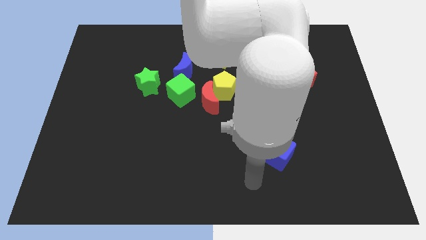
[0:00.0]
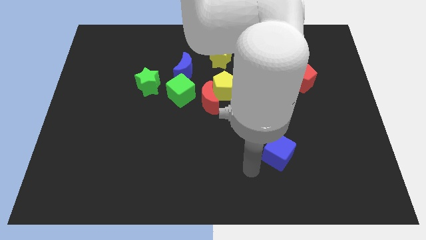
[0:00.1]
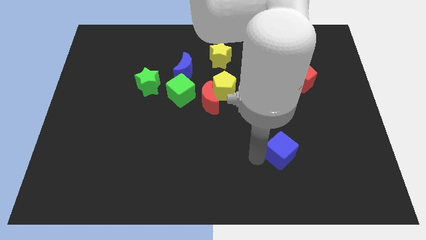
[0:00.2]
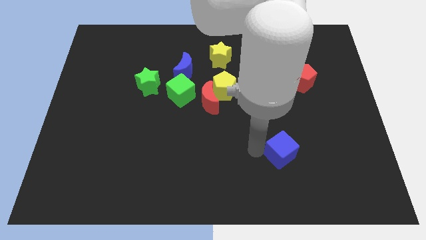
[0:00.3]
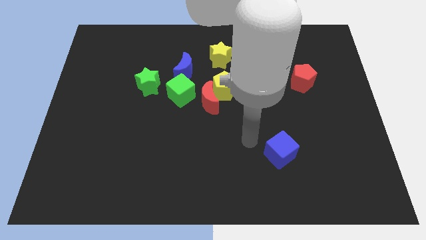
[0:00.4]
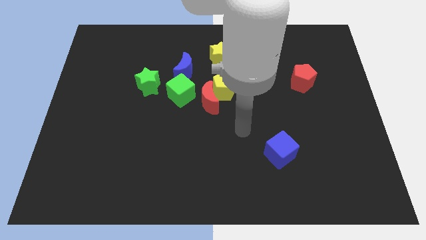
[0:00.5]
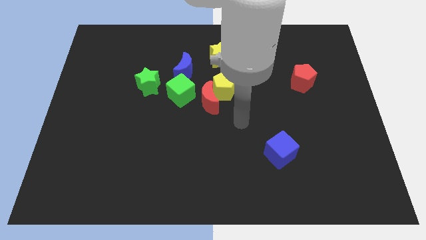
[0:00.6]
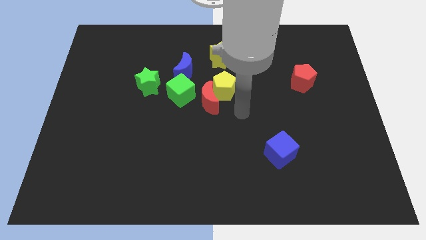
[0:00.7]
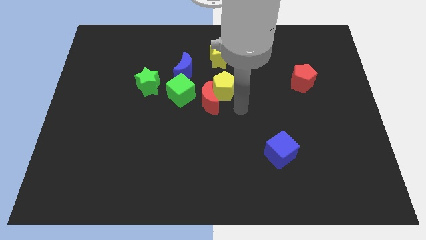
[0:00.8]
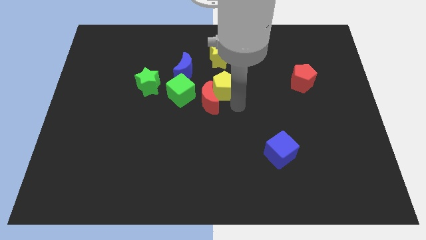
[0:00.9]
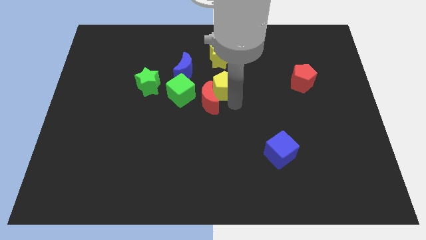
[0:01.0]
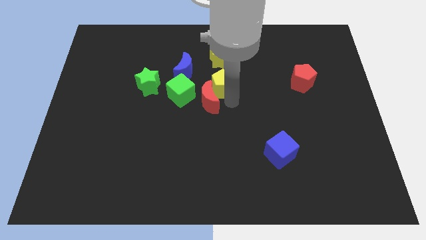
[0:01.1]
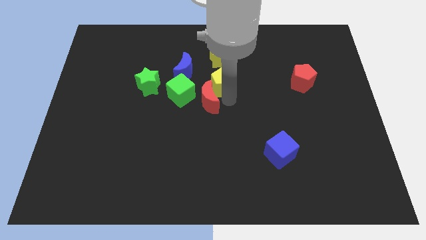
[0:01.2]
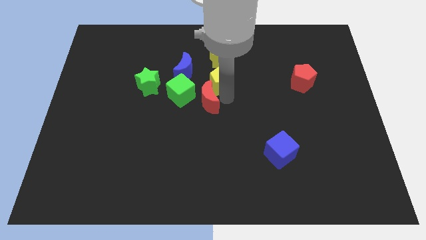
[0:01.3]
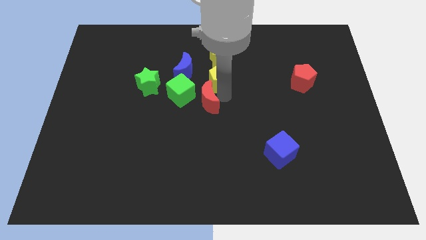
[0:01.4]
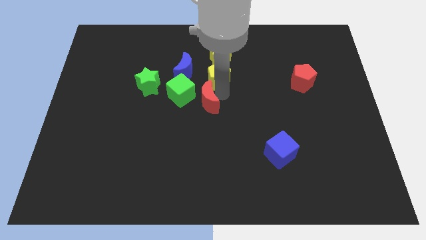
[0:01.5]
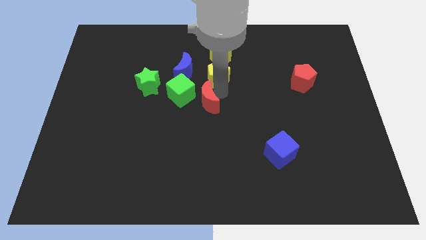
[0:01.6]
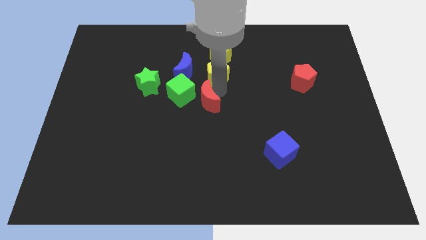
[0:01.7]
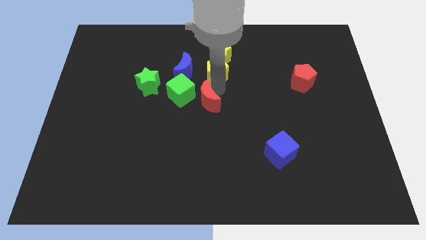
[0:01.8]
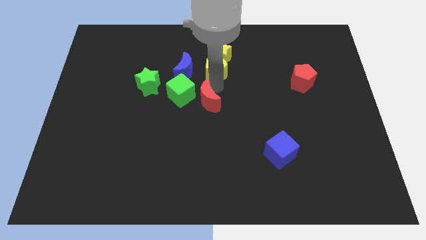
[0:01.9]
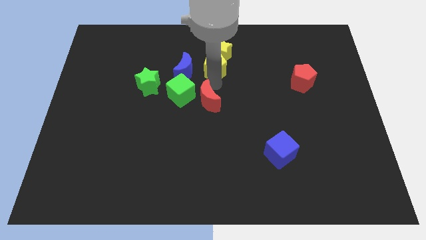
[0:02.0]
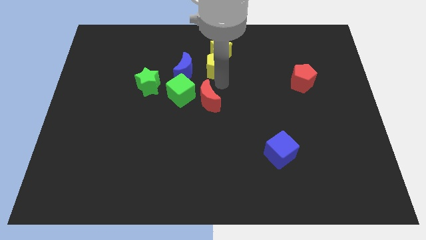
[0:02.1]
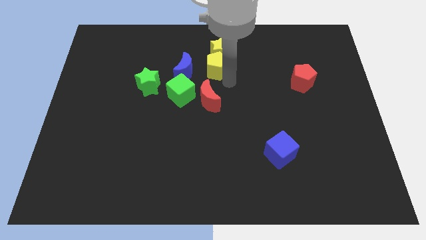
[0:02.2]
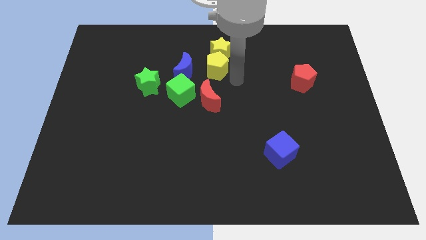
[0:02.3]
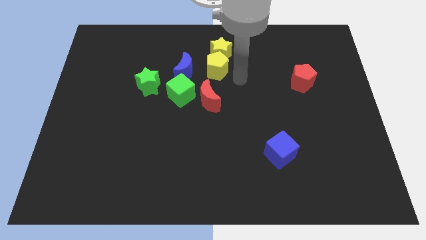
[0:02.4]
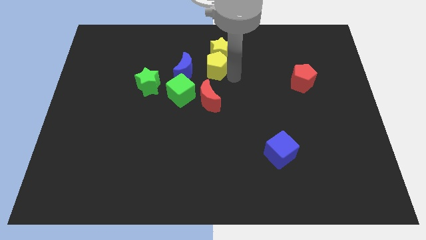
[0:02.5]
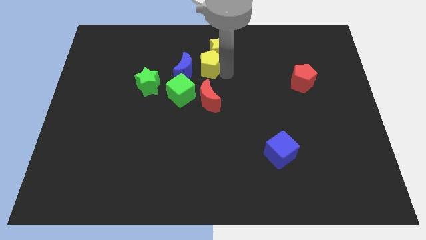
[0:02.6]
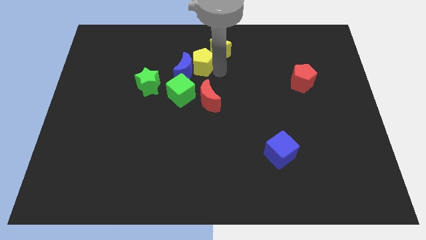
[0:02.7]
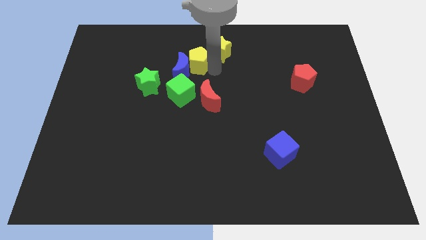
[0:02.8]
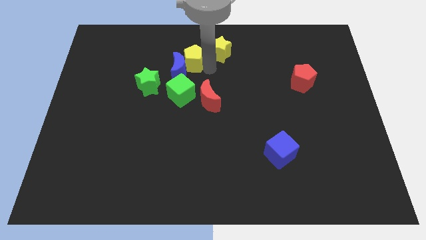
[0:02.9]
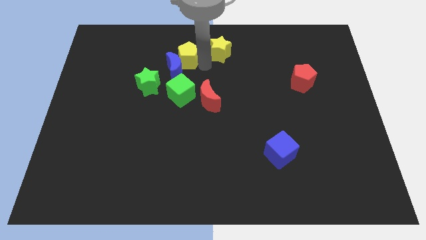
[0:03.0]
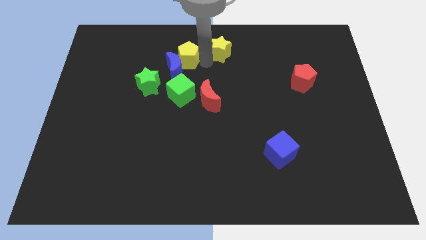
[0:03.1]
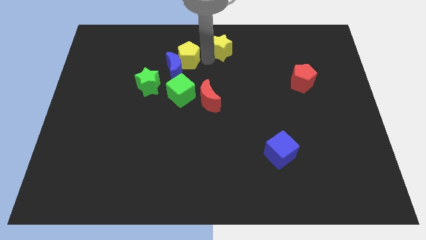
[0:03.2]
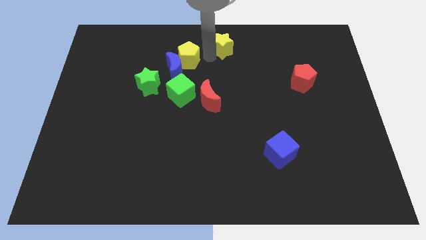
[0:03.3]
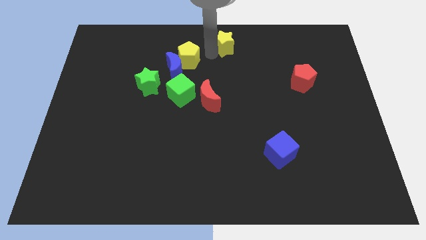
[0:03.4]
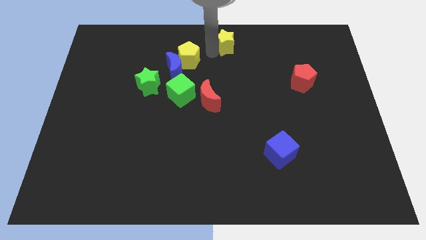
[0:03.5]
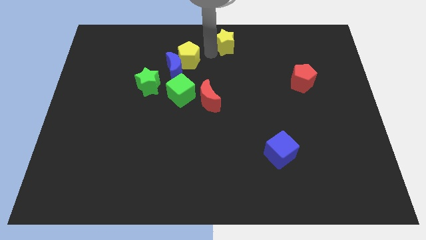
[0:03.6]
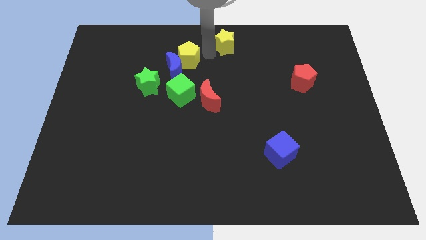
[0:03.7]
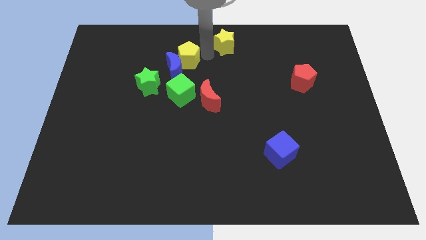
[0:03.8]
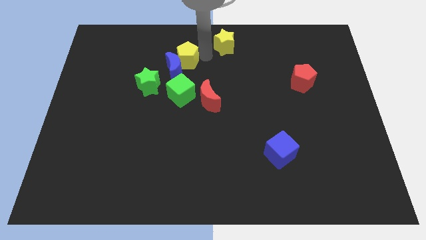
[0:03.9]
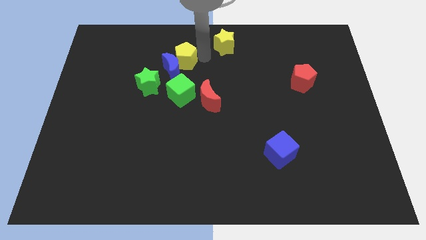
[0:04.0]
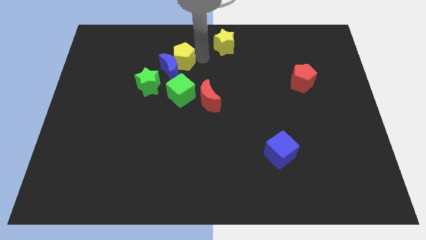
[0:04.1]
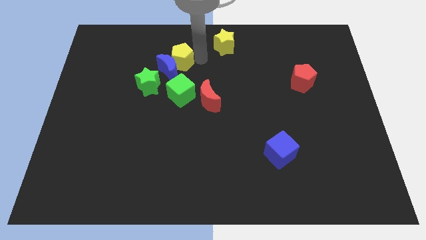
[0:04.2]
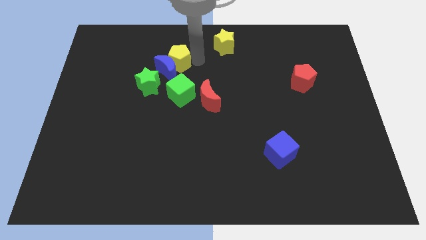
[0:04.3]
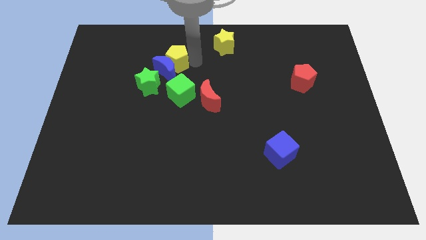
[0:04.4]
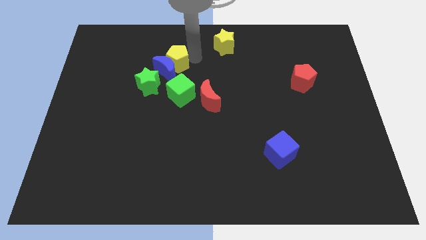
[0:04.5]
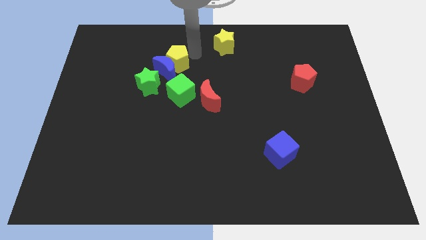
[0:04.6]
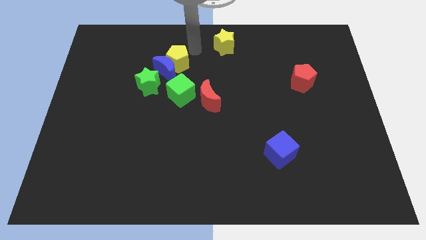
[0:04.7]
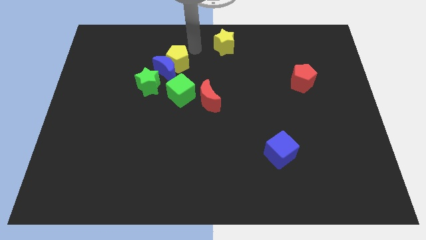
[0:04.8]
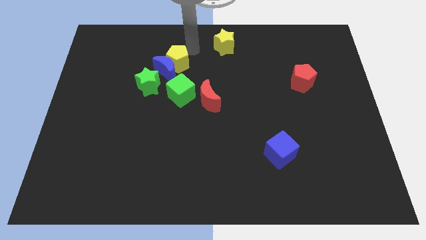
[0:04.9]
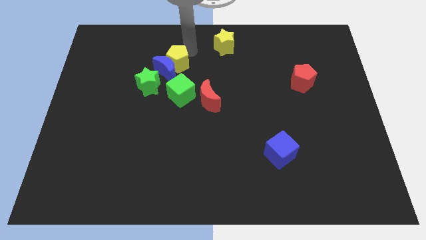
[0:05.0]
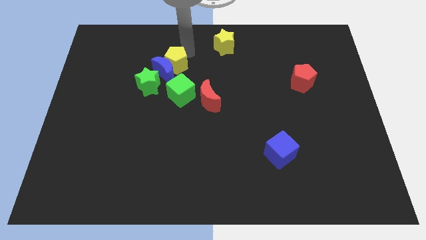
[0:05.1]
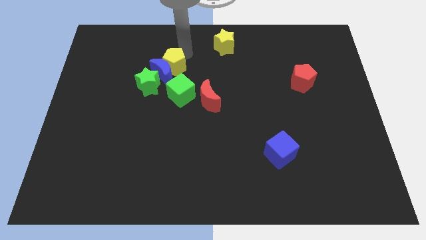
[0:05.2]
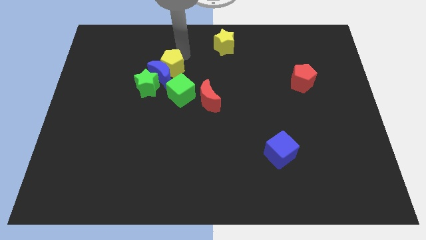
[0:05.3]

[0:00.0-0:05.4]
move the yellow pentagon to the top left of the green cube

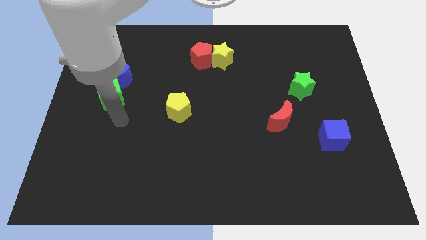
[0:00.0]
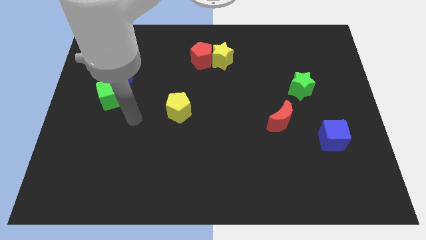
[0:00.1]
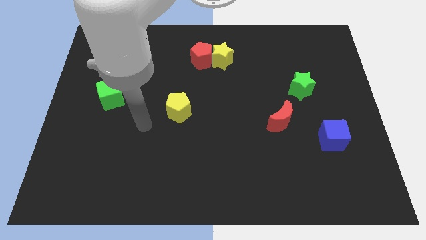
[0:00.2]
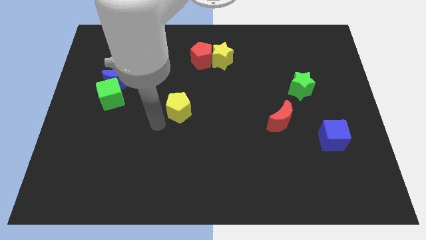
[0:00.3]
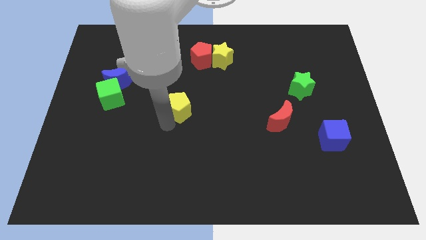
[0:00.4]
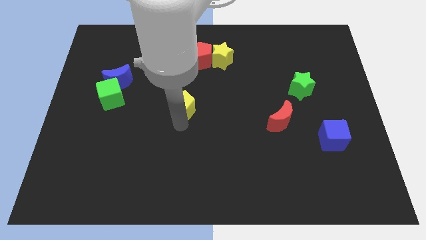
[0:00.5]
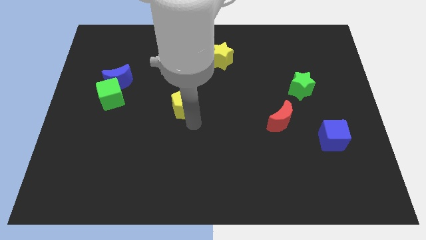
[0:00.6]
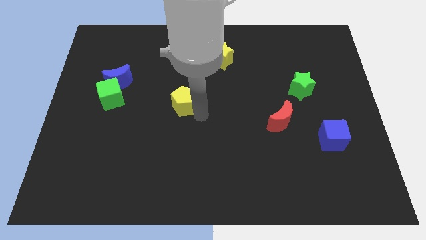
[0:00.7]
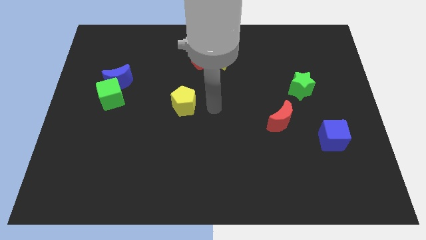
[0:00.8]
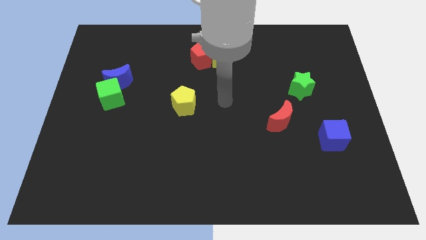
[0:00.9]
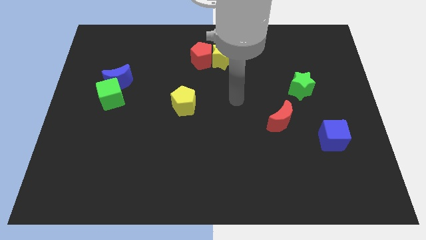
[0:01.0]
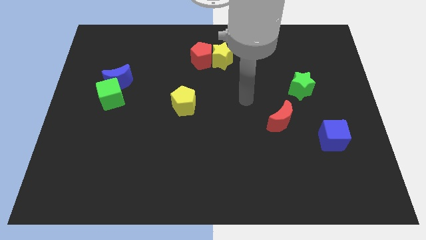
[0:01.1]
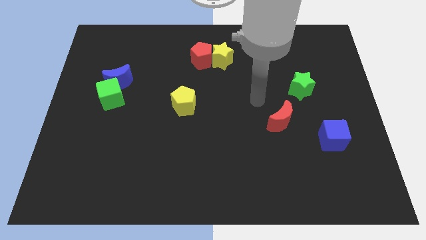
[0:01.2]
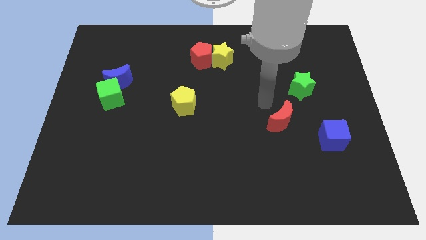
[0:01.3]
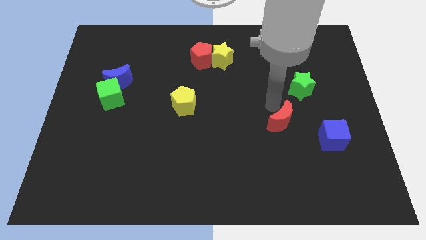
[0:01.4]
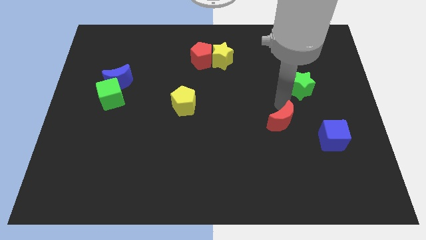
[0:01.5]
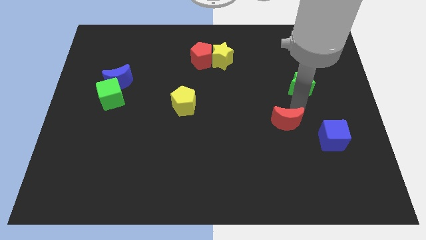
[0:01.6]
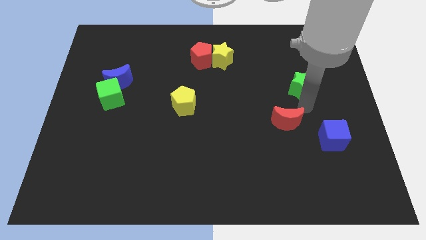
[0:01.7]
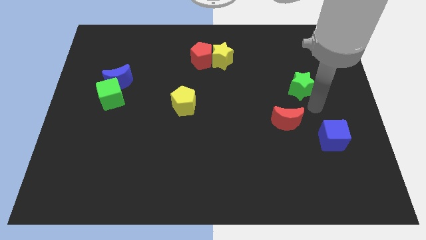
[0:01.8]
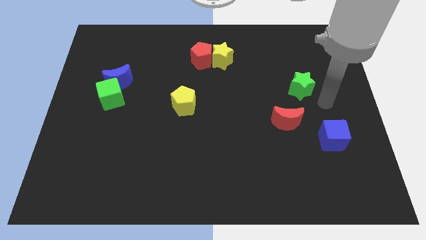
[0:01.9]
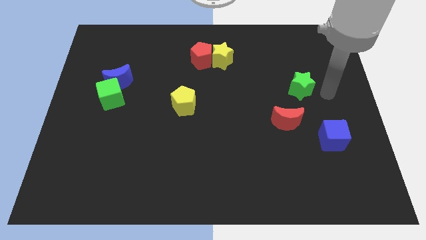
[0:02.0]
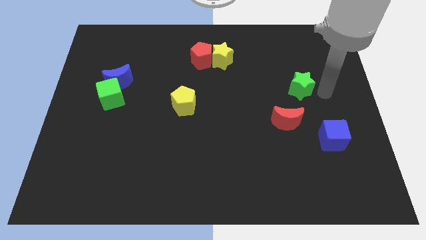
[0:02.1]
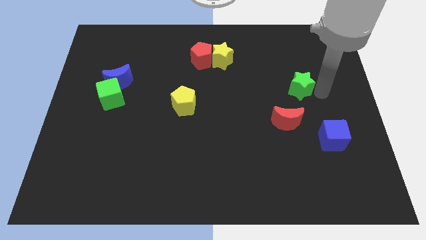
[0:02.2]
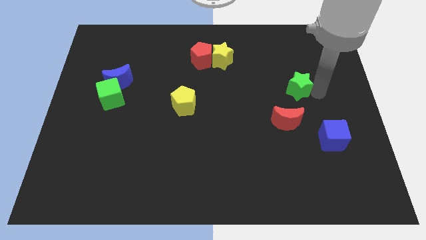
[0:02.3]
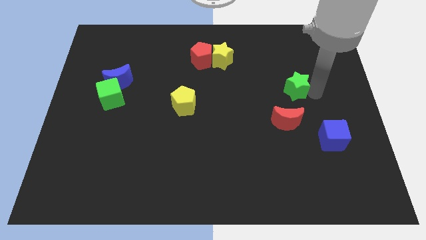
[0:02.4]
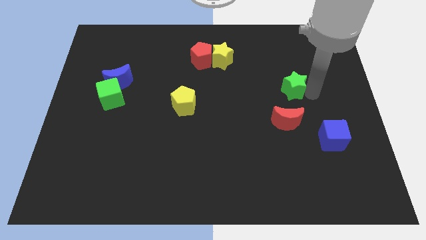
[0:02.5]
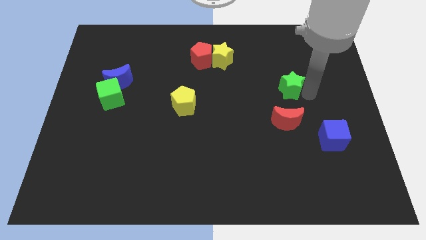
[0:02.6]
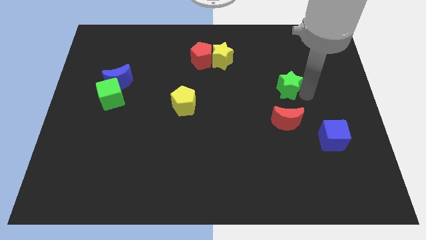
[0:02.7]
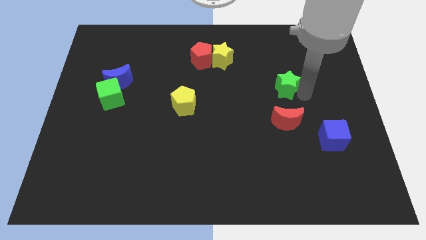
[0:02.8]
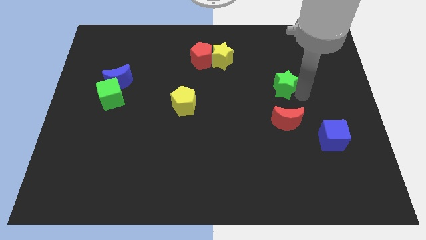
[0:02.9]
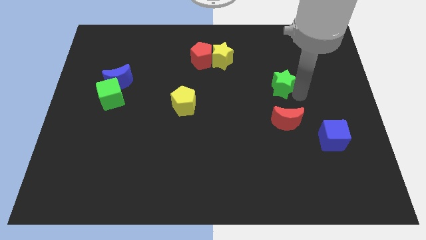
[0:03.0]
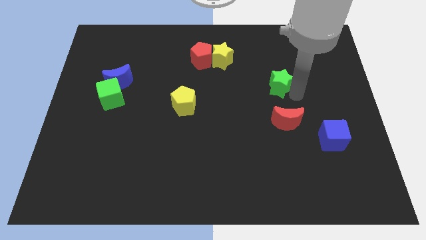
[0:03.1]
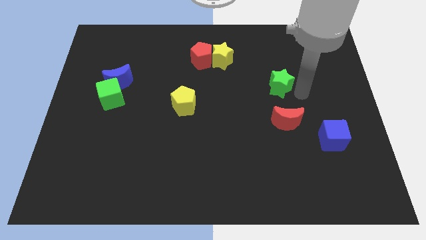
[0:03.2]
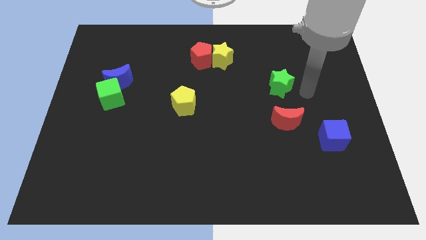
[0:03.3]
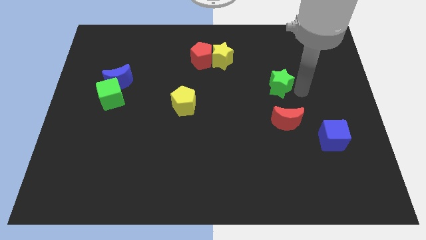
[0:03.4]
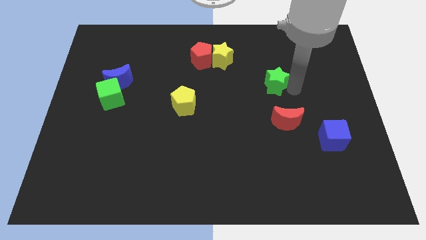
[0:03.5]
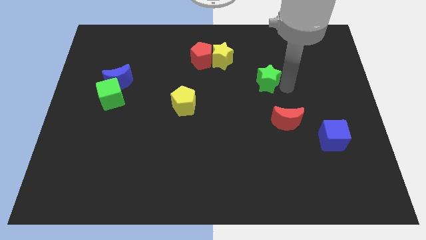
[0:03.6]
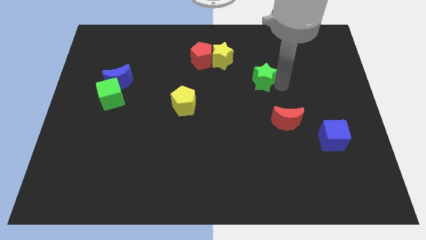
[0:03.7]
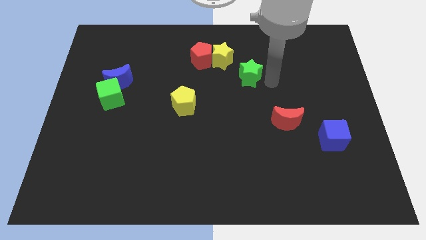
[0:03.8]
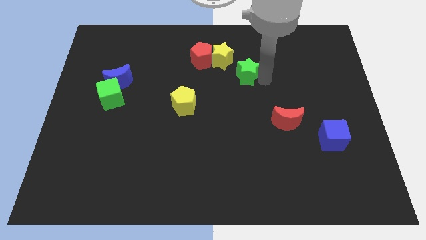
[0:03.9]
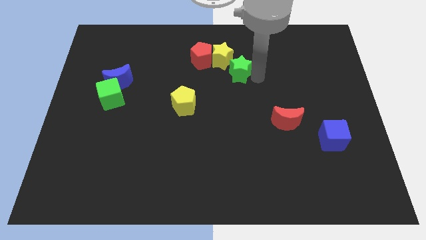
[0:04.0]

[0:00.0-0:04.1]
push the green star diagonally down and to the right of the red pentagon
